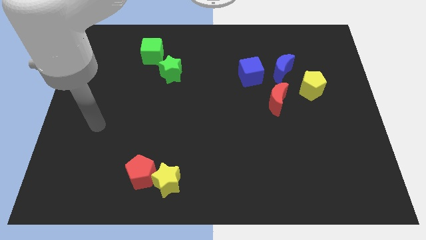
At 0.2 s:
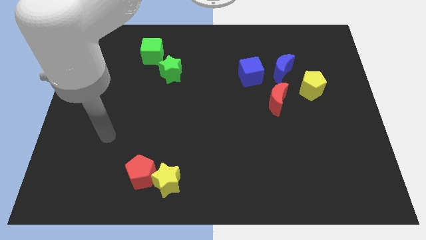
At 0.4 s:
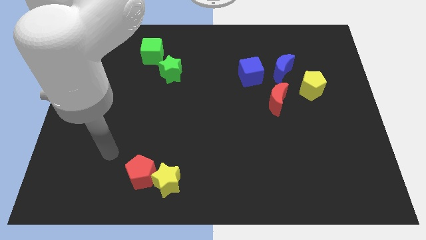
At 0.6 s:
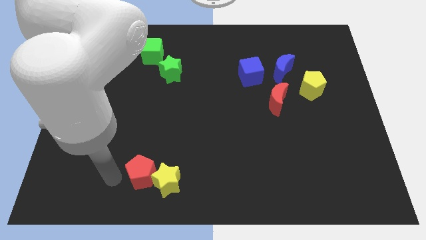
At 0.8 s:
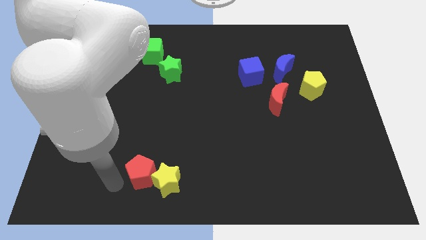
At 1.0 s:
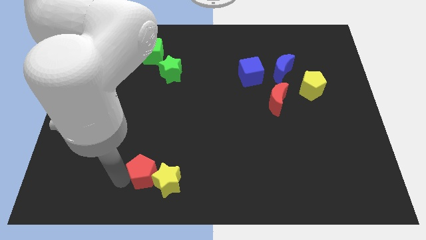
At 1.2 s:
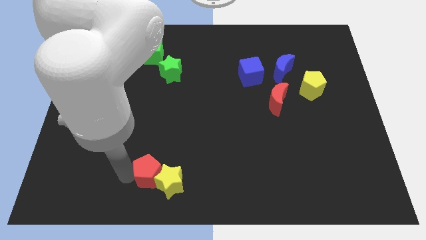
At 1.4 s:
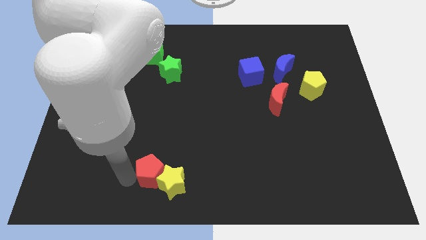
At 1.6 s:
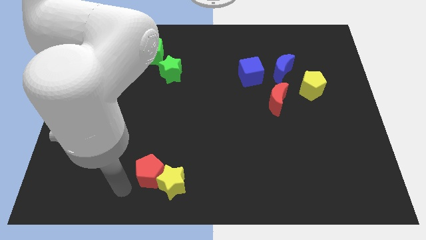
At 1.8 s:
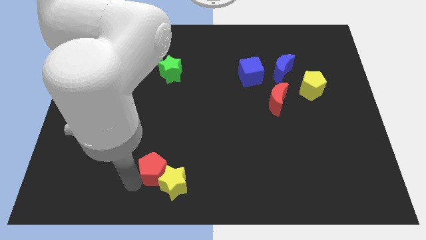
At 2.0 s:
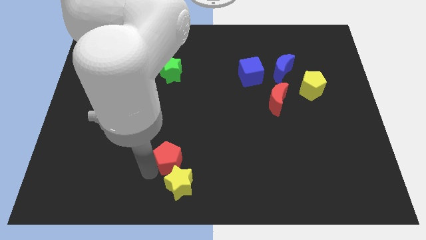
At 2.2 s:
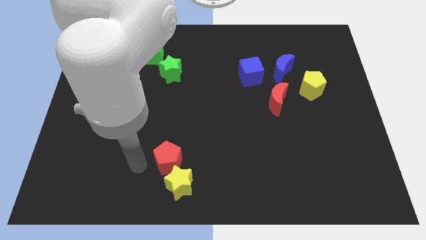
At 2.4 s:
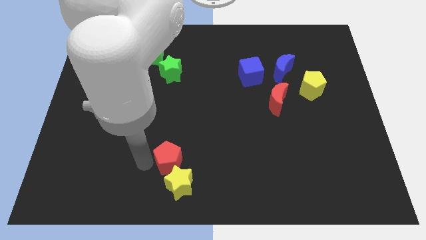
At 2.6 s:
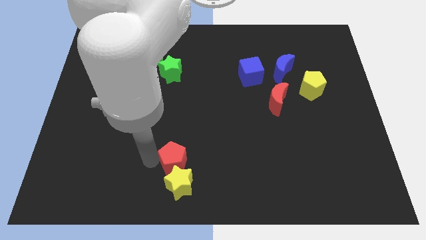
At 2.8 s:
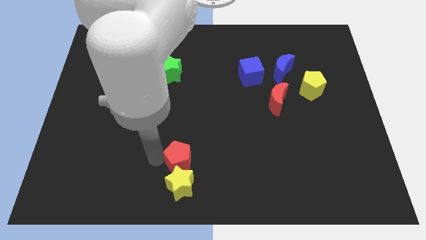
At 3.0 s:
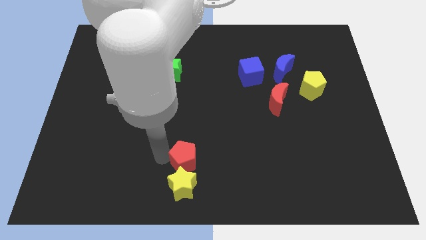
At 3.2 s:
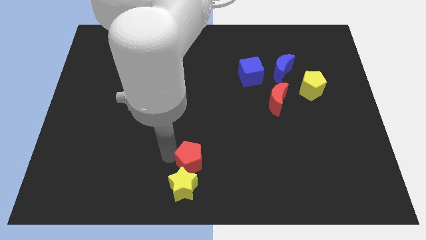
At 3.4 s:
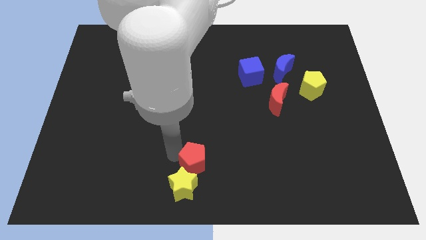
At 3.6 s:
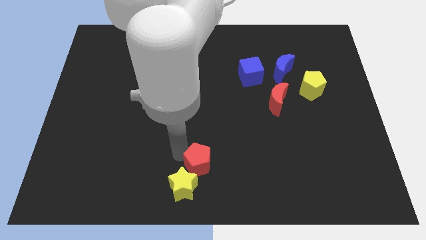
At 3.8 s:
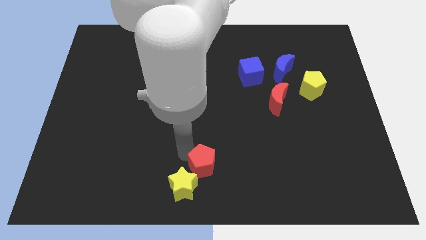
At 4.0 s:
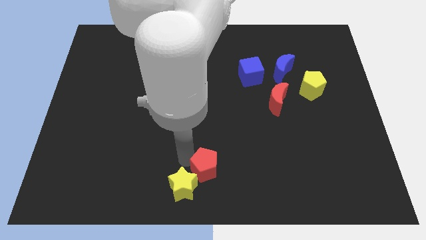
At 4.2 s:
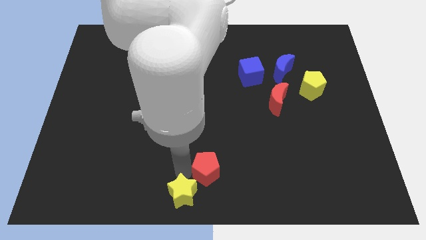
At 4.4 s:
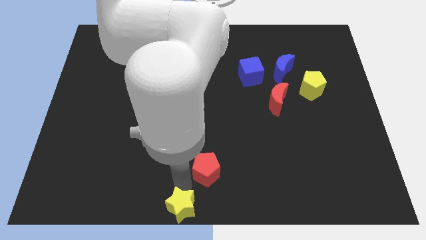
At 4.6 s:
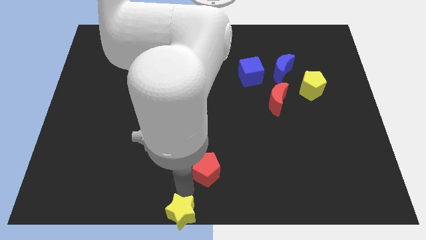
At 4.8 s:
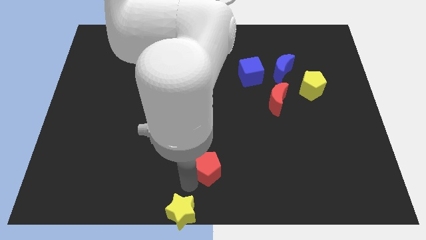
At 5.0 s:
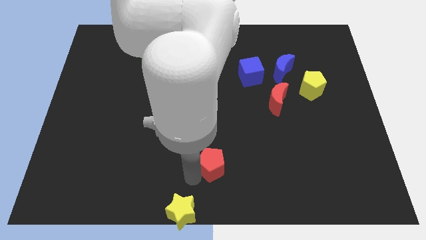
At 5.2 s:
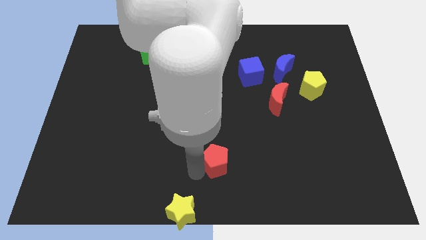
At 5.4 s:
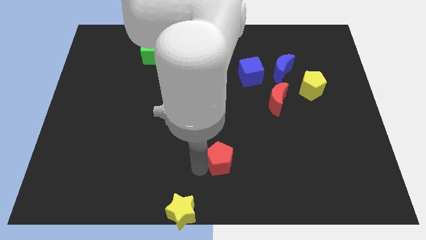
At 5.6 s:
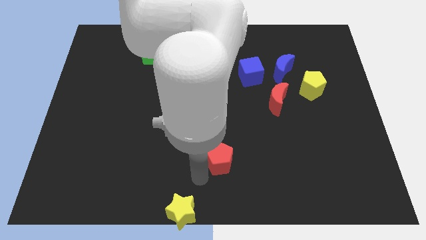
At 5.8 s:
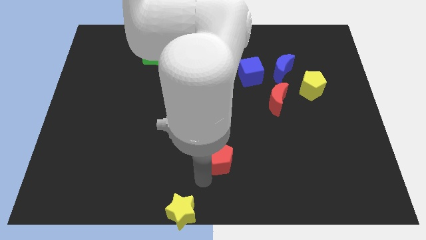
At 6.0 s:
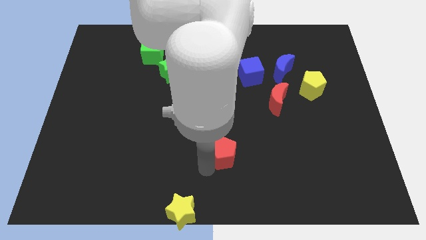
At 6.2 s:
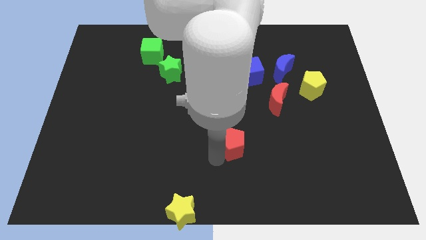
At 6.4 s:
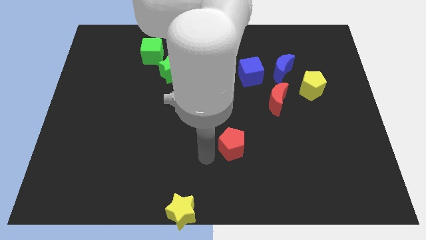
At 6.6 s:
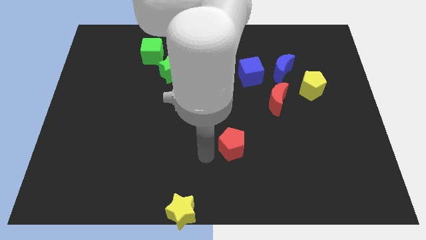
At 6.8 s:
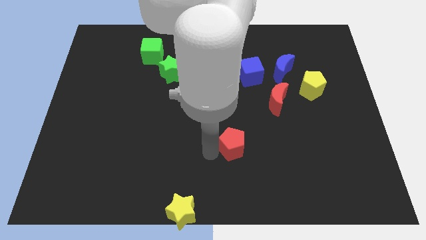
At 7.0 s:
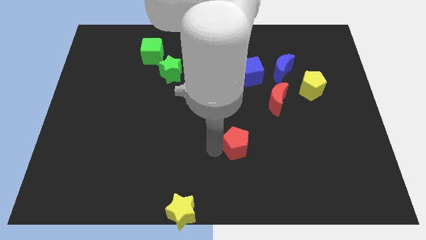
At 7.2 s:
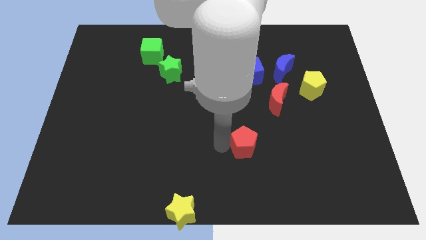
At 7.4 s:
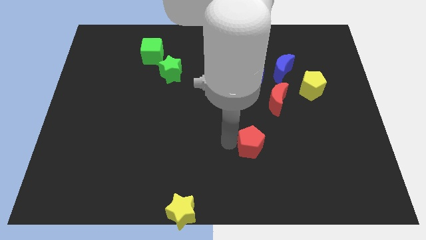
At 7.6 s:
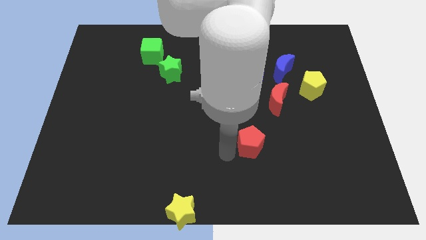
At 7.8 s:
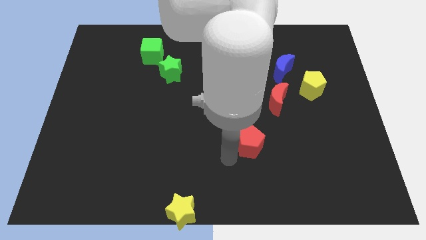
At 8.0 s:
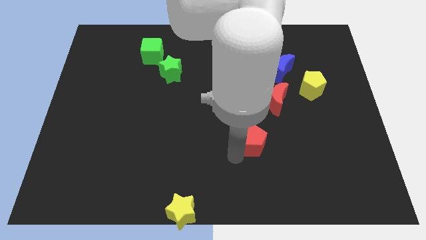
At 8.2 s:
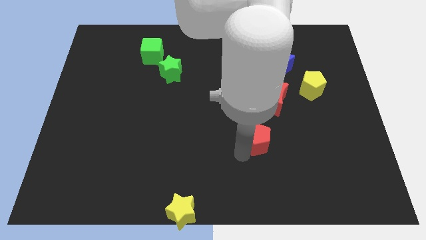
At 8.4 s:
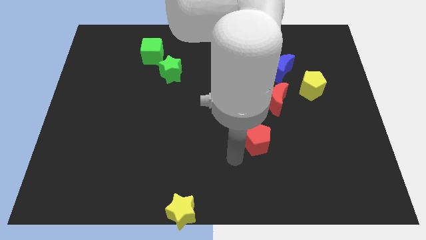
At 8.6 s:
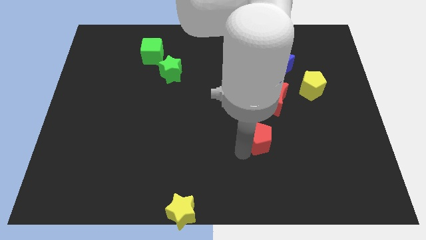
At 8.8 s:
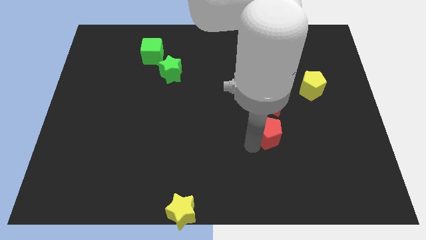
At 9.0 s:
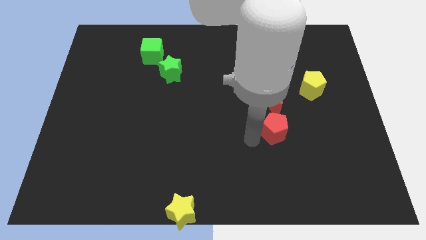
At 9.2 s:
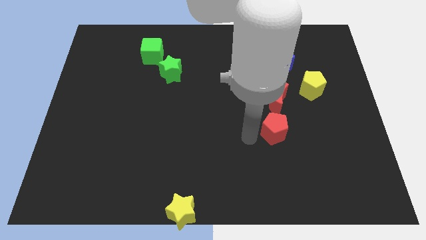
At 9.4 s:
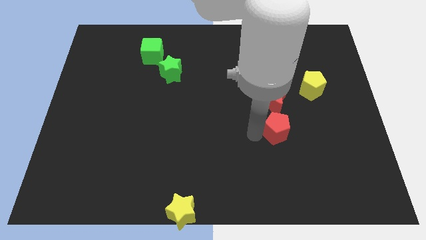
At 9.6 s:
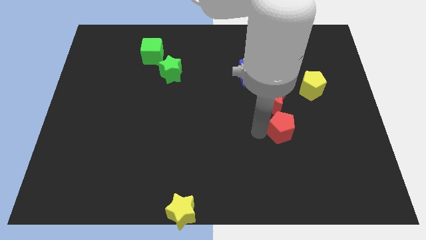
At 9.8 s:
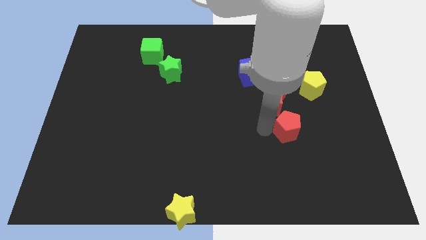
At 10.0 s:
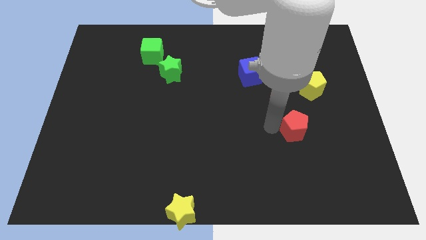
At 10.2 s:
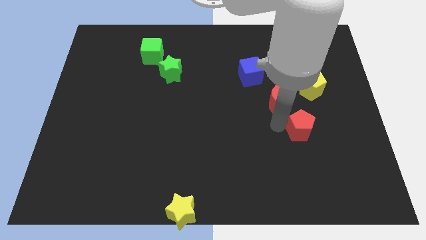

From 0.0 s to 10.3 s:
move the red pentagon to the bottom side of the yellow pentagon

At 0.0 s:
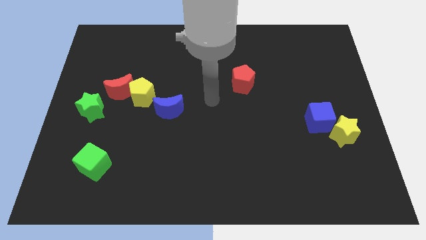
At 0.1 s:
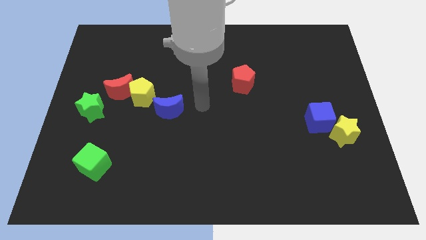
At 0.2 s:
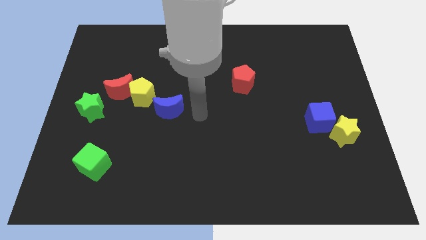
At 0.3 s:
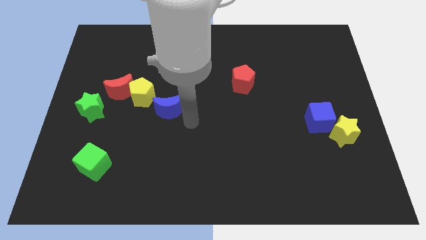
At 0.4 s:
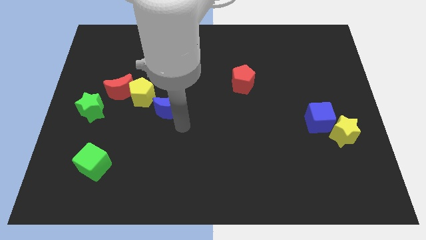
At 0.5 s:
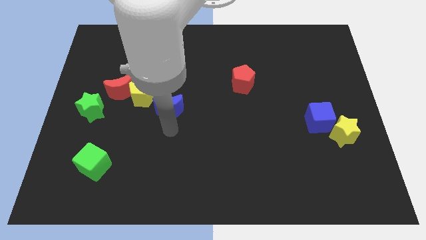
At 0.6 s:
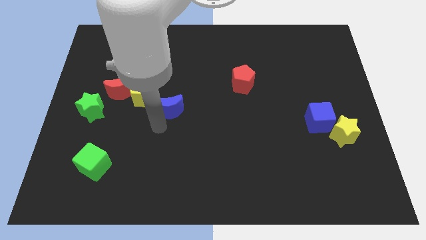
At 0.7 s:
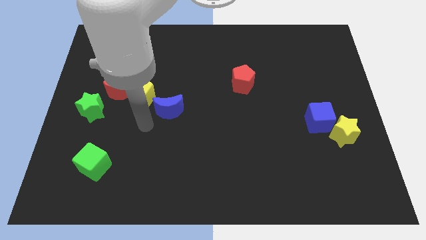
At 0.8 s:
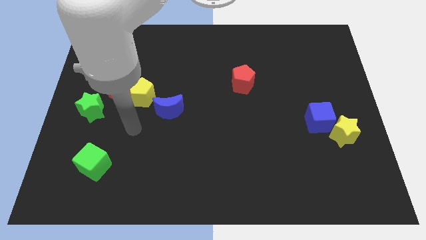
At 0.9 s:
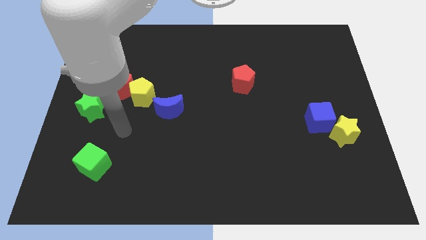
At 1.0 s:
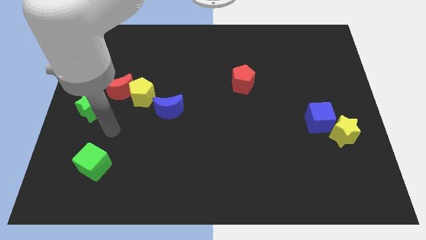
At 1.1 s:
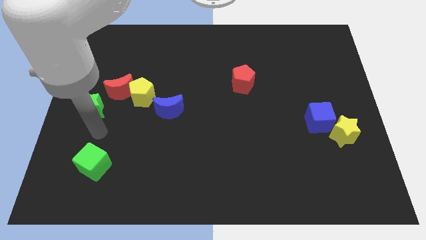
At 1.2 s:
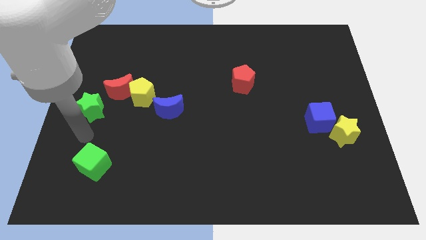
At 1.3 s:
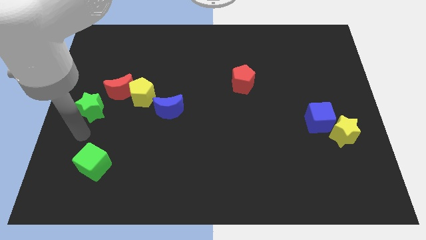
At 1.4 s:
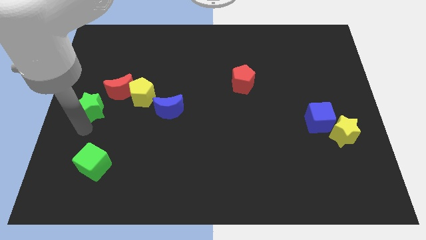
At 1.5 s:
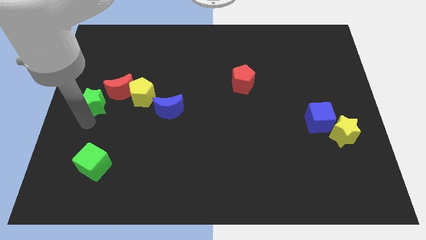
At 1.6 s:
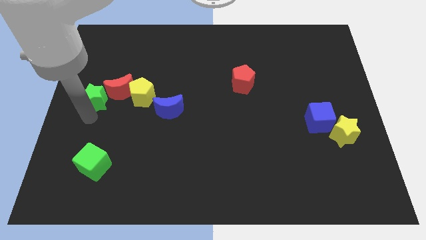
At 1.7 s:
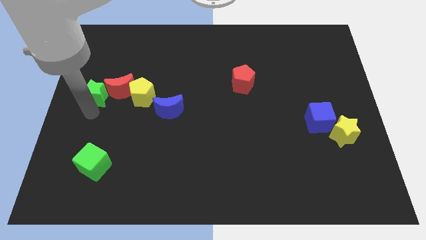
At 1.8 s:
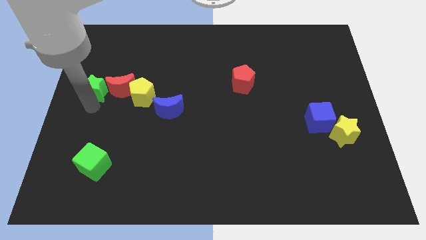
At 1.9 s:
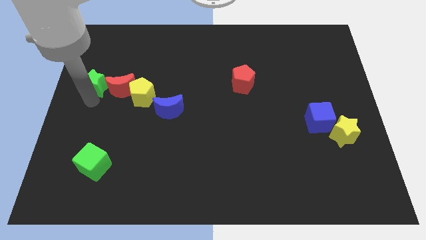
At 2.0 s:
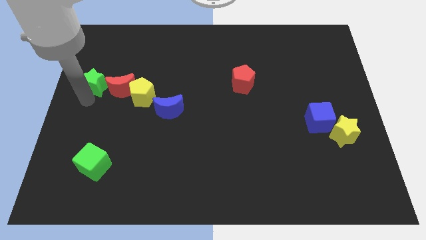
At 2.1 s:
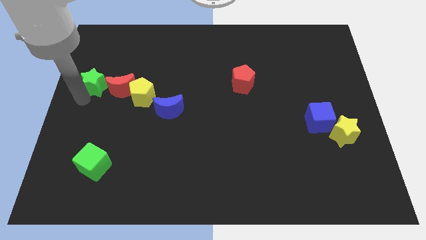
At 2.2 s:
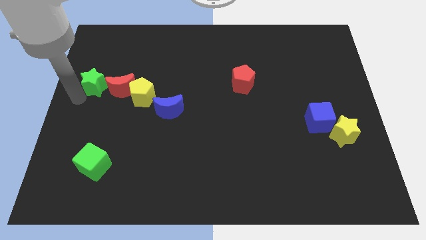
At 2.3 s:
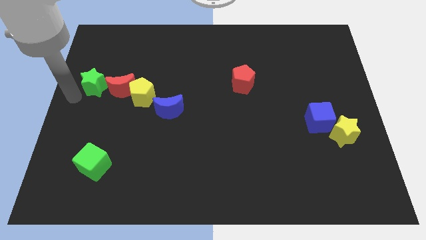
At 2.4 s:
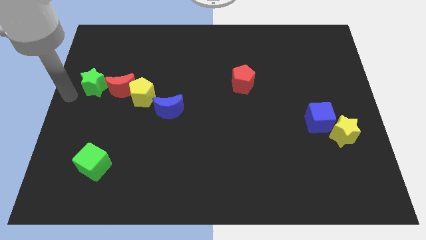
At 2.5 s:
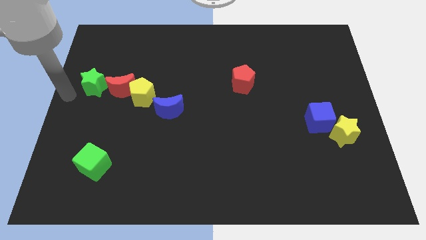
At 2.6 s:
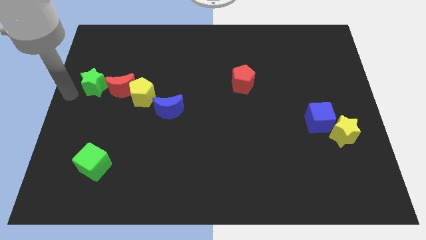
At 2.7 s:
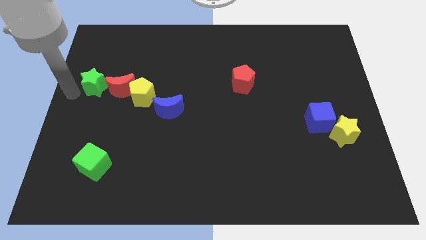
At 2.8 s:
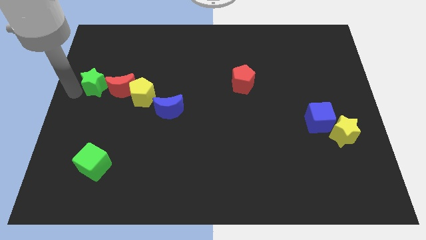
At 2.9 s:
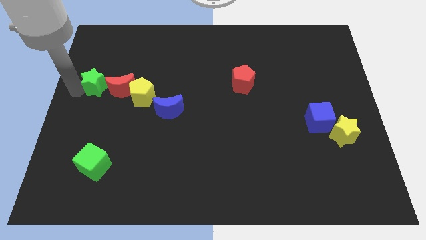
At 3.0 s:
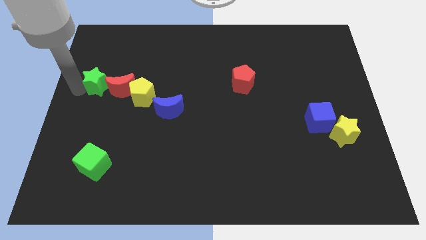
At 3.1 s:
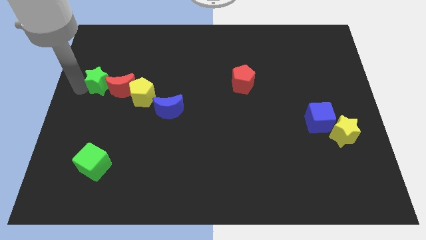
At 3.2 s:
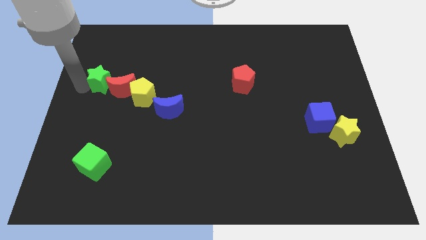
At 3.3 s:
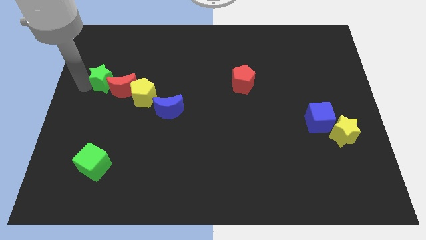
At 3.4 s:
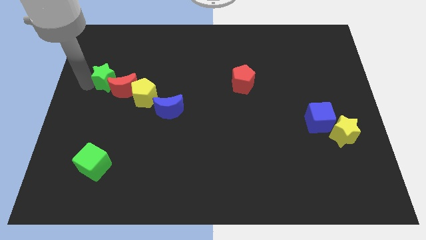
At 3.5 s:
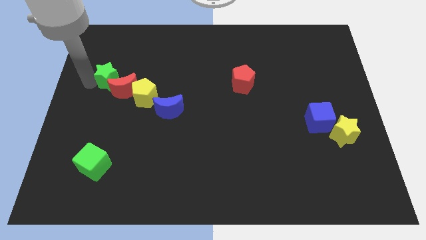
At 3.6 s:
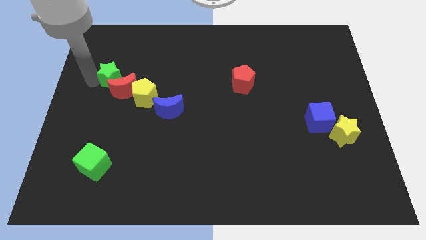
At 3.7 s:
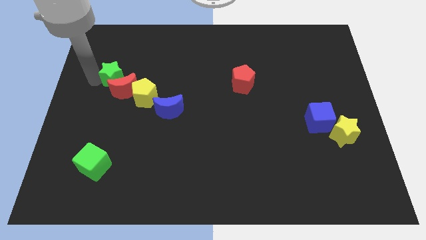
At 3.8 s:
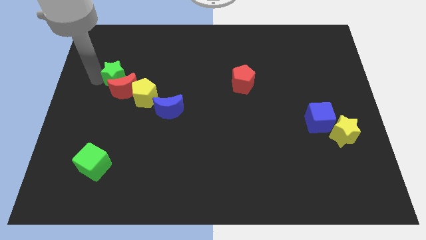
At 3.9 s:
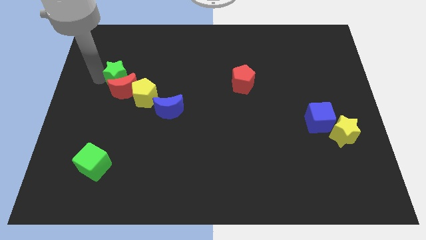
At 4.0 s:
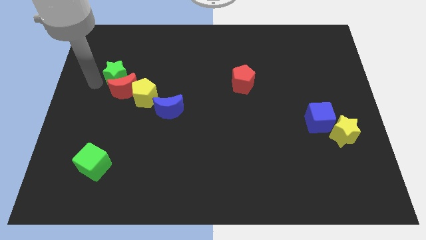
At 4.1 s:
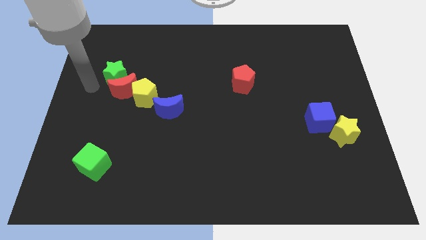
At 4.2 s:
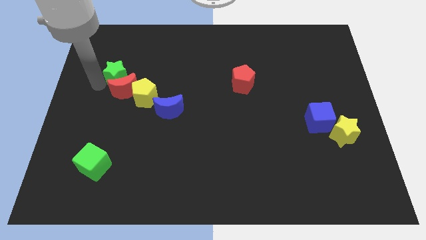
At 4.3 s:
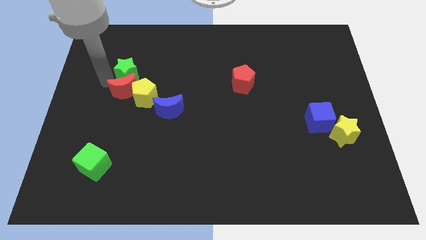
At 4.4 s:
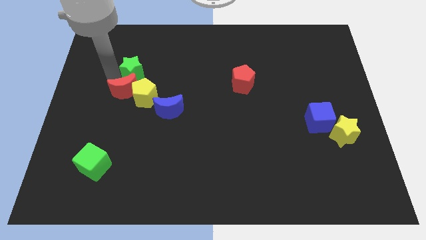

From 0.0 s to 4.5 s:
slide the green star to the top side of the yellow pentagon
